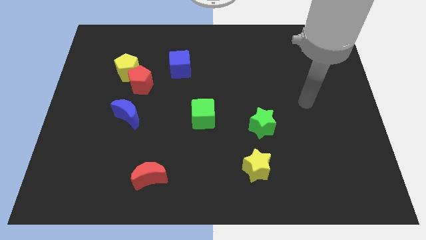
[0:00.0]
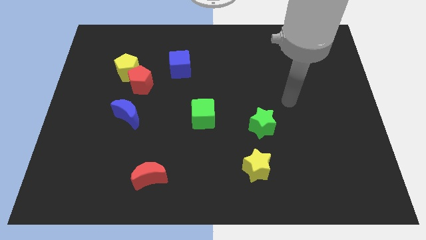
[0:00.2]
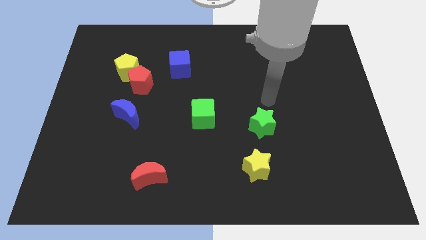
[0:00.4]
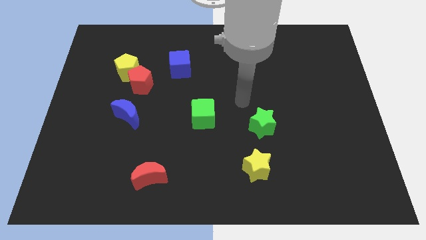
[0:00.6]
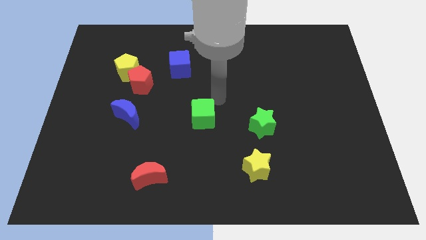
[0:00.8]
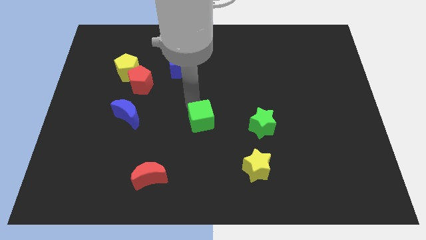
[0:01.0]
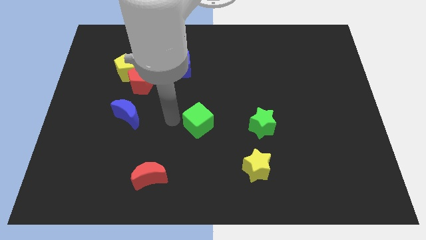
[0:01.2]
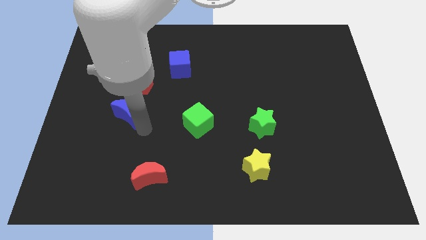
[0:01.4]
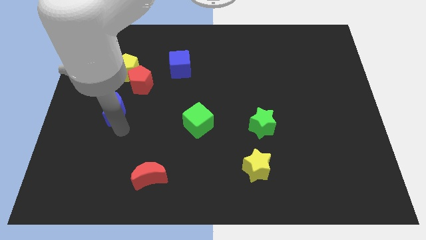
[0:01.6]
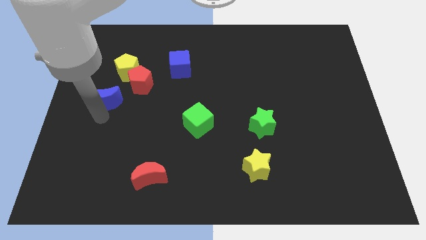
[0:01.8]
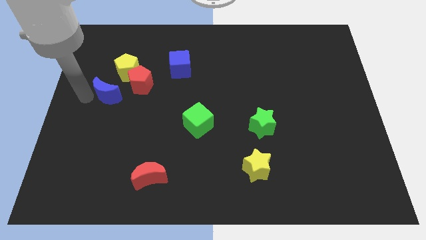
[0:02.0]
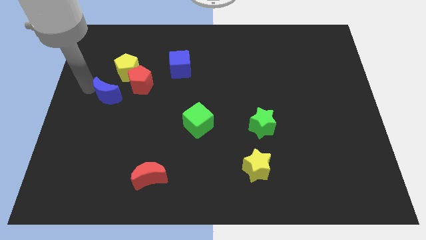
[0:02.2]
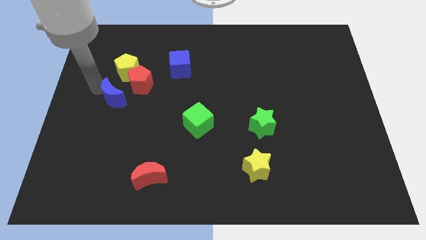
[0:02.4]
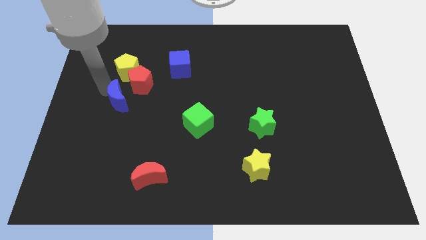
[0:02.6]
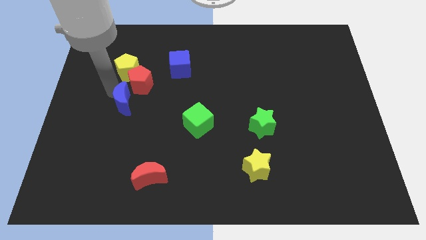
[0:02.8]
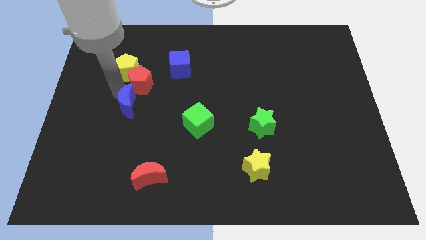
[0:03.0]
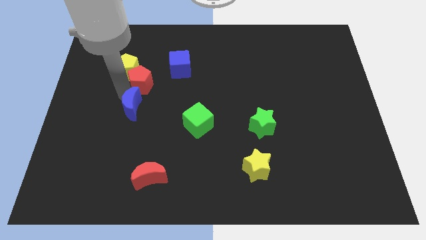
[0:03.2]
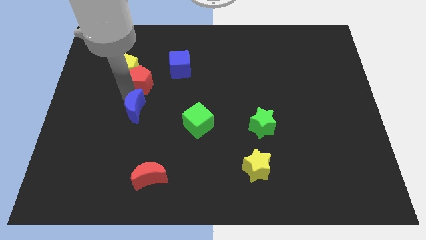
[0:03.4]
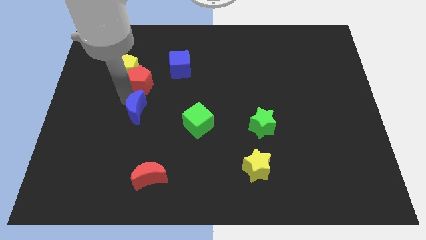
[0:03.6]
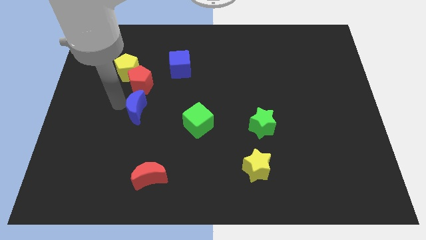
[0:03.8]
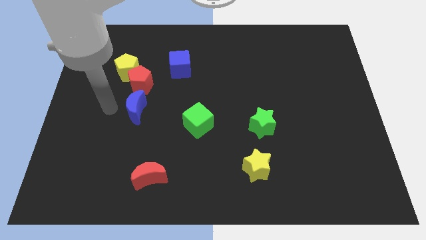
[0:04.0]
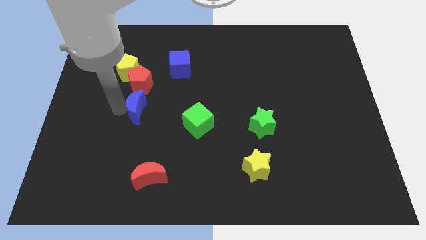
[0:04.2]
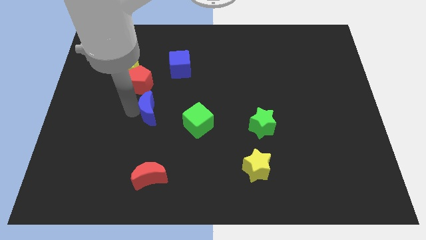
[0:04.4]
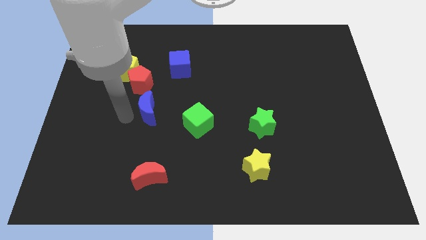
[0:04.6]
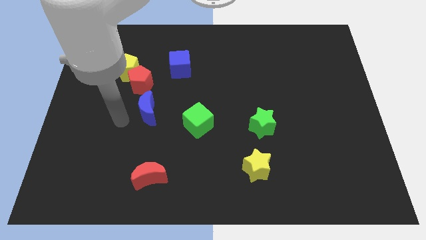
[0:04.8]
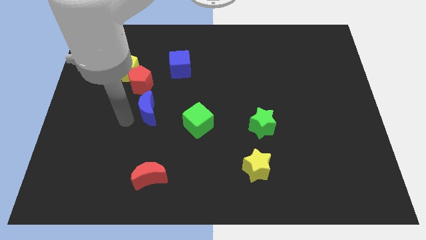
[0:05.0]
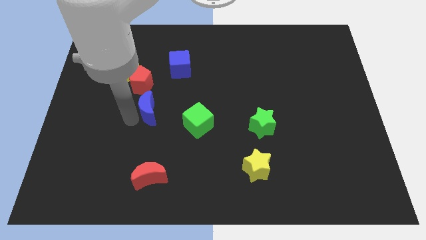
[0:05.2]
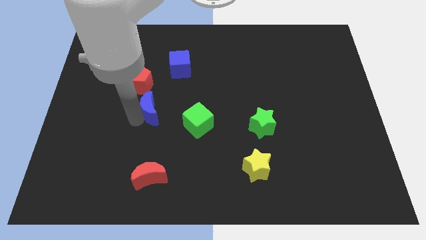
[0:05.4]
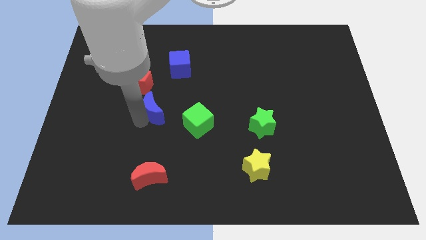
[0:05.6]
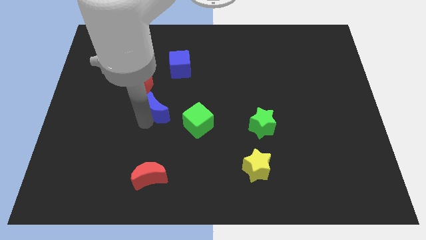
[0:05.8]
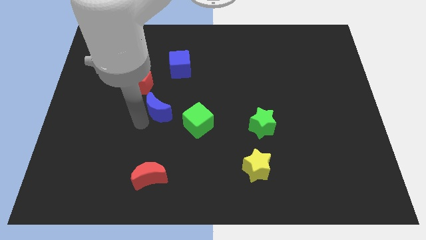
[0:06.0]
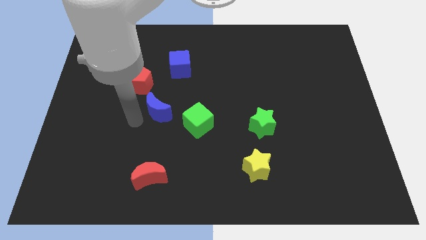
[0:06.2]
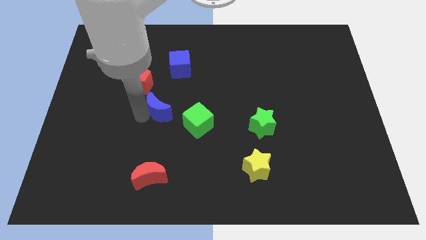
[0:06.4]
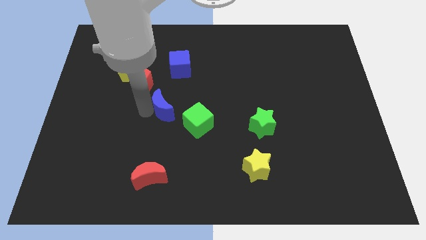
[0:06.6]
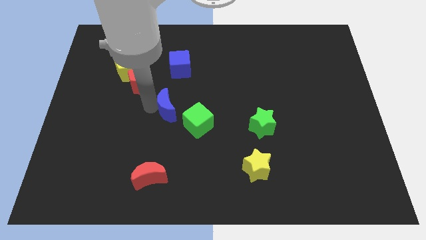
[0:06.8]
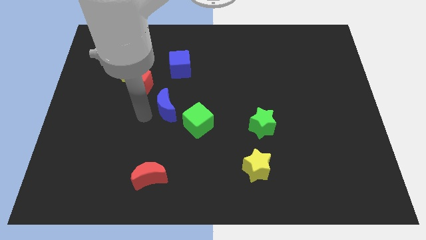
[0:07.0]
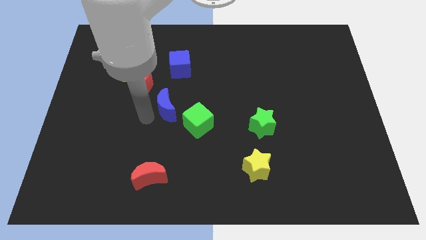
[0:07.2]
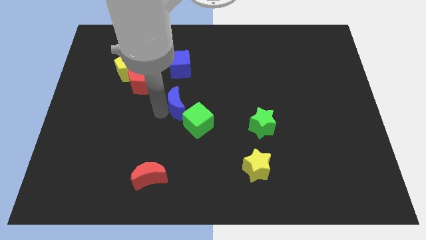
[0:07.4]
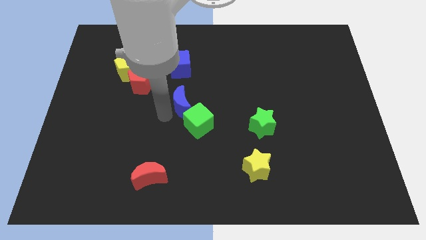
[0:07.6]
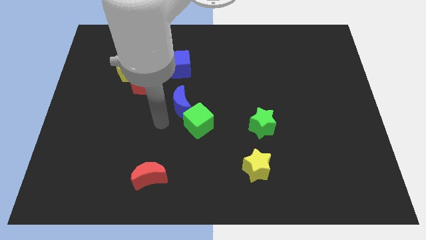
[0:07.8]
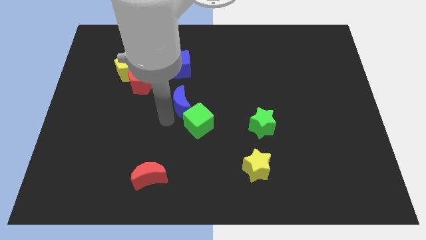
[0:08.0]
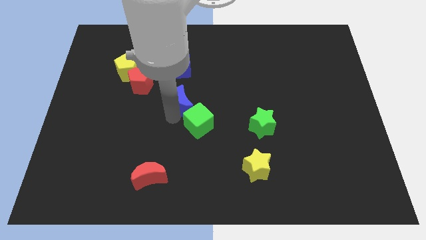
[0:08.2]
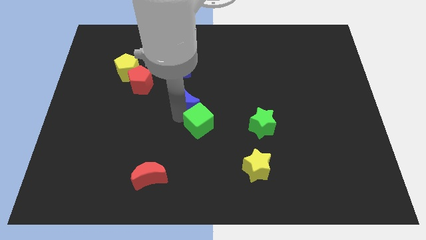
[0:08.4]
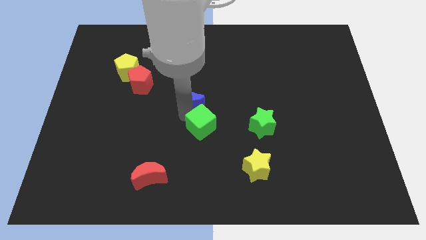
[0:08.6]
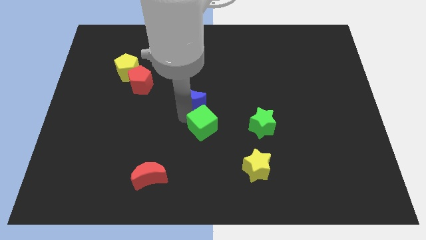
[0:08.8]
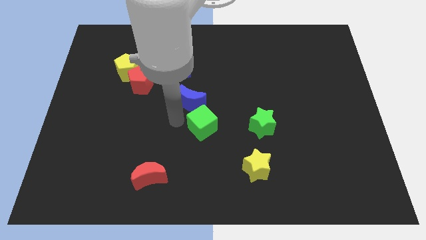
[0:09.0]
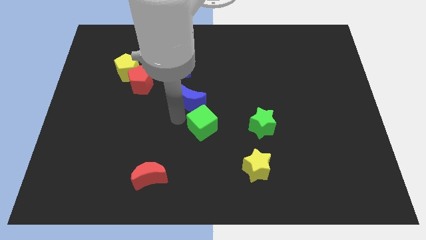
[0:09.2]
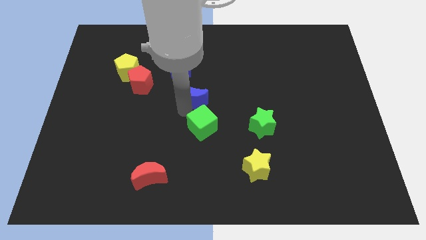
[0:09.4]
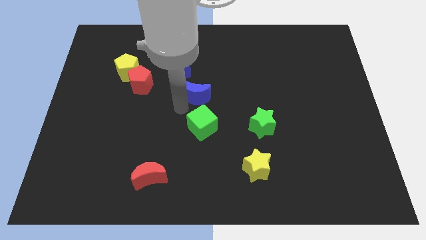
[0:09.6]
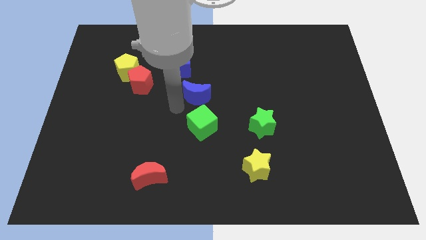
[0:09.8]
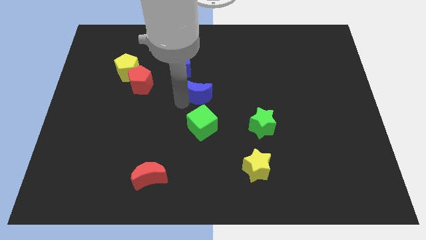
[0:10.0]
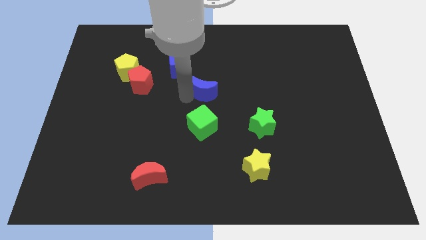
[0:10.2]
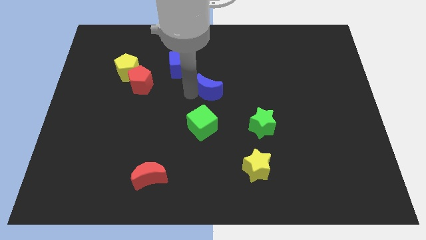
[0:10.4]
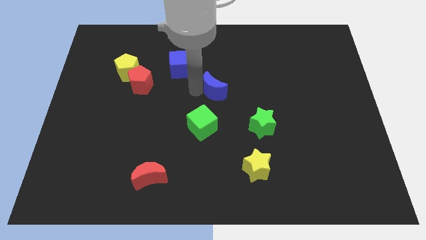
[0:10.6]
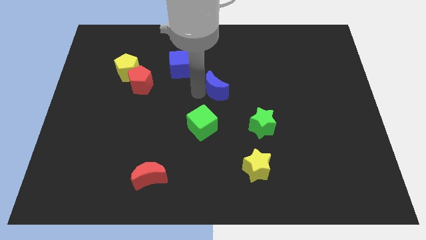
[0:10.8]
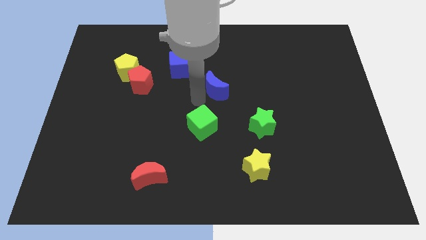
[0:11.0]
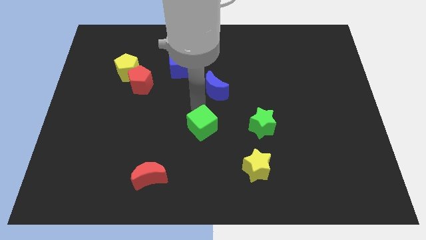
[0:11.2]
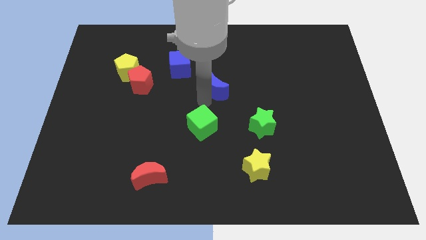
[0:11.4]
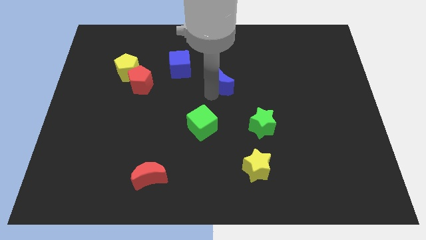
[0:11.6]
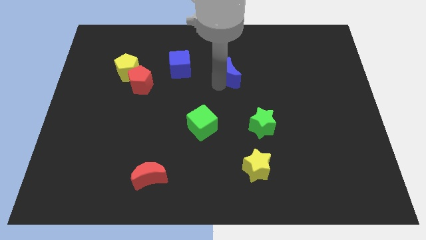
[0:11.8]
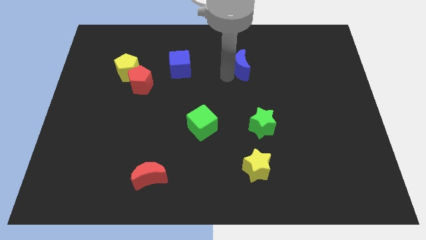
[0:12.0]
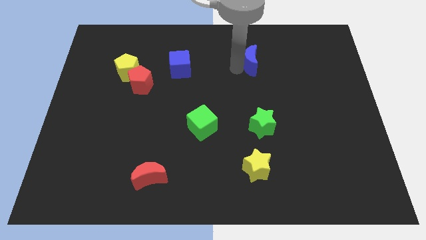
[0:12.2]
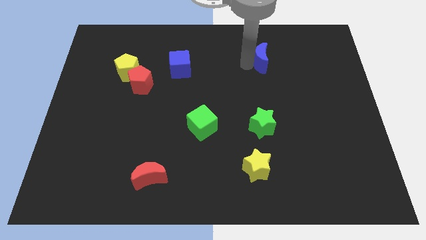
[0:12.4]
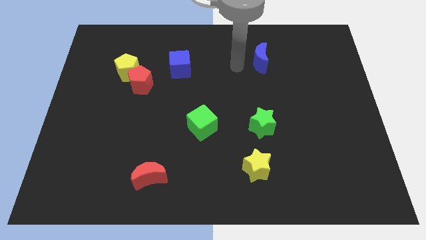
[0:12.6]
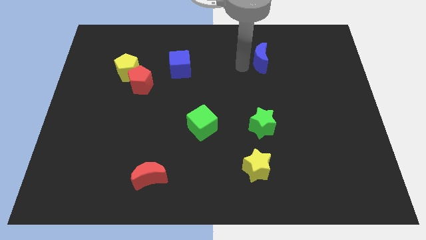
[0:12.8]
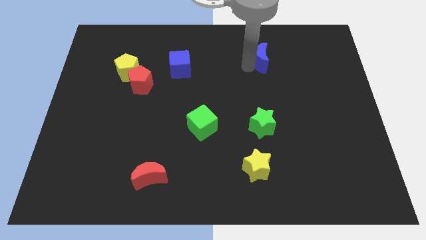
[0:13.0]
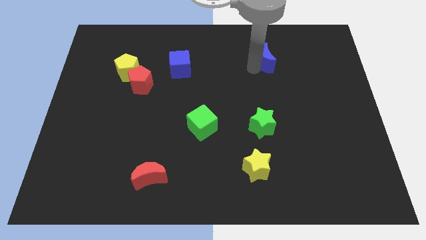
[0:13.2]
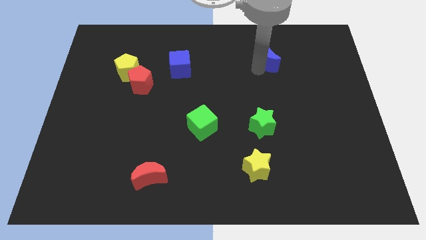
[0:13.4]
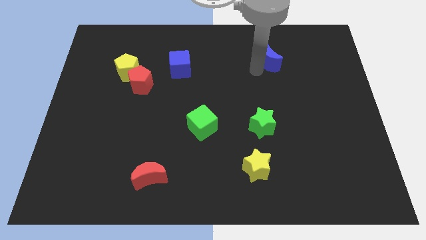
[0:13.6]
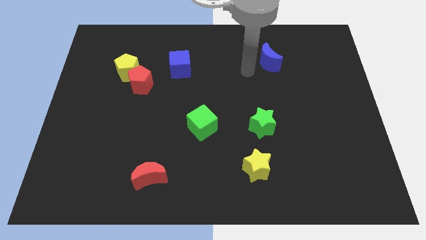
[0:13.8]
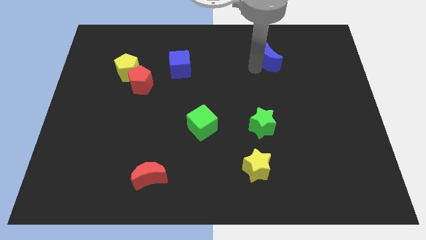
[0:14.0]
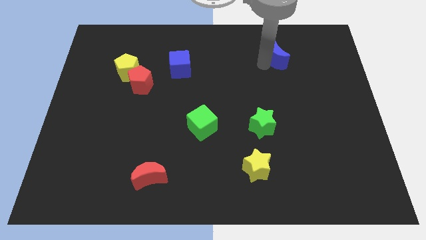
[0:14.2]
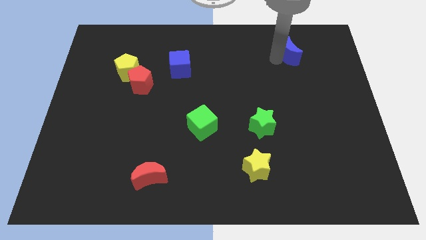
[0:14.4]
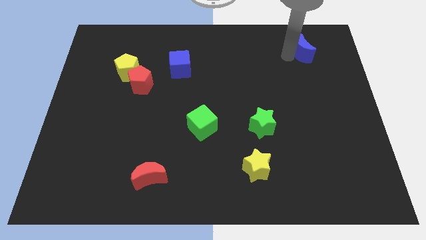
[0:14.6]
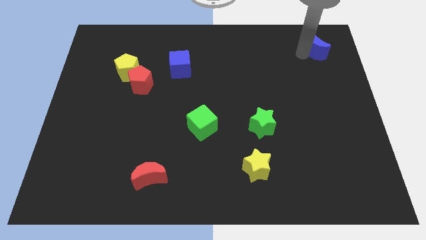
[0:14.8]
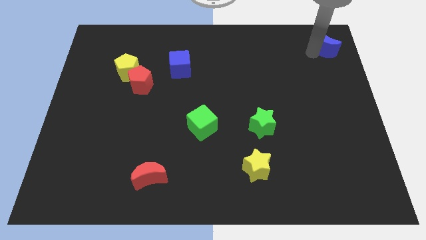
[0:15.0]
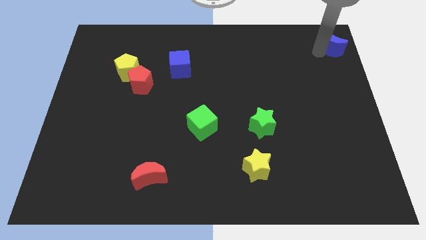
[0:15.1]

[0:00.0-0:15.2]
put the blue moon to the top right corner
